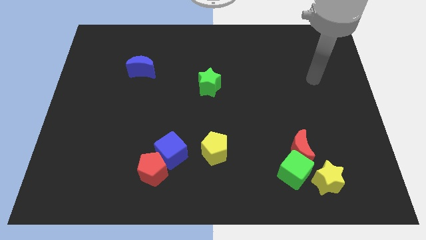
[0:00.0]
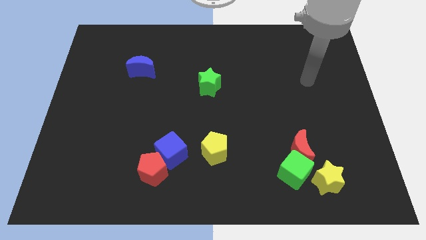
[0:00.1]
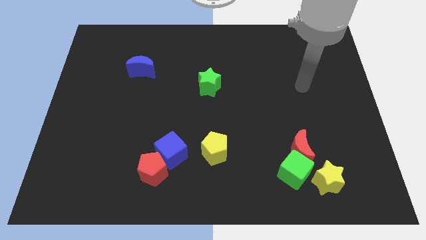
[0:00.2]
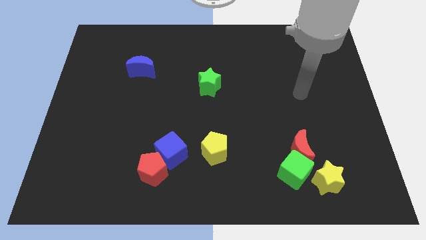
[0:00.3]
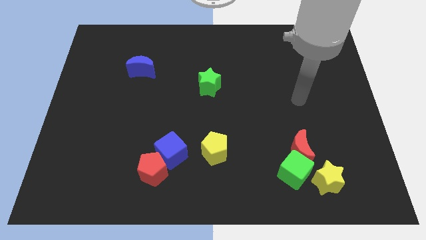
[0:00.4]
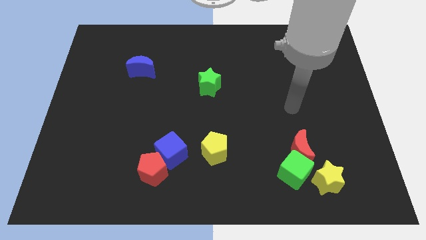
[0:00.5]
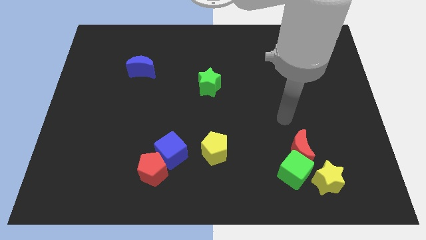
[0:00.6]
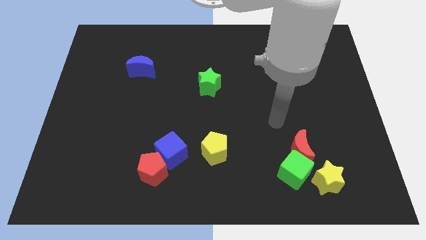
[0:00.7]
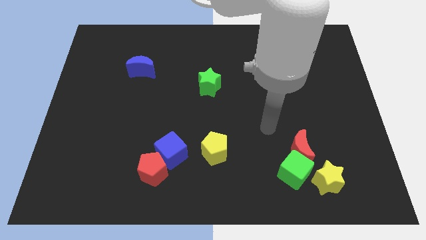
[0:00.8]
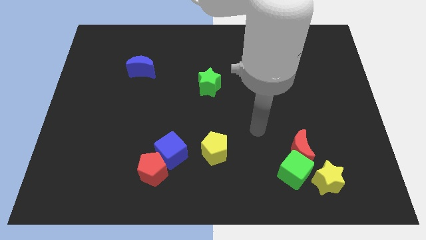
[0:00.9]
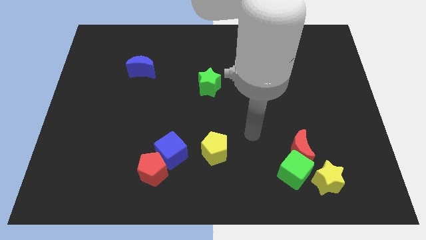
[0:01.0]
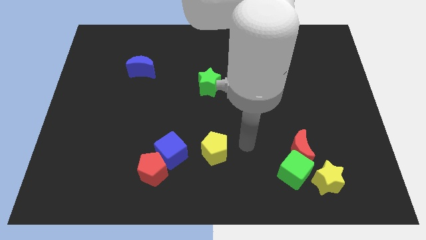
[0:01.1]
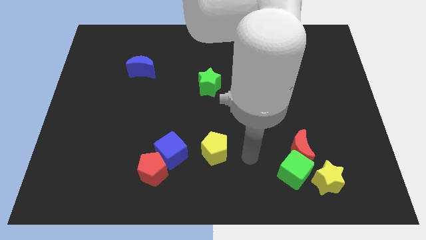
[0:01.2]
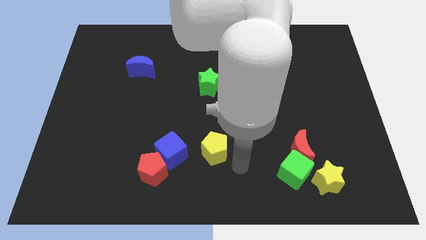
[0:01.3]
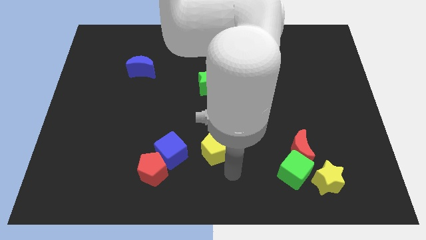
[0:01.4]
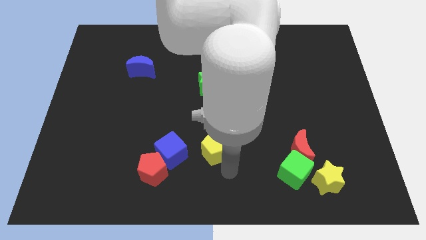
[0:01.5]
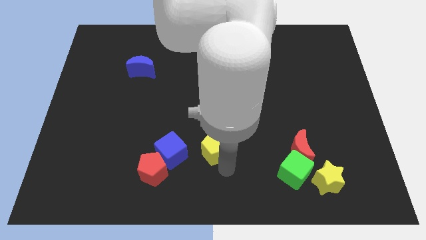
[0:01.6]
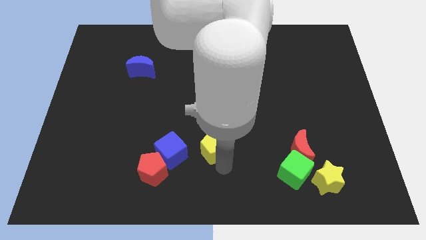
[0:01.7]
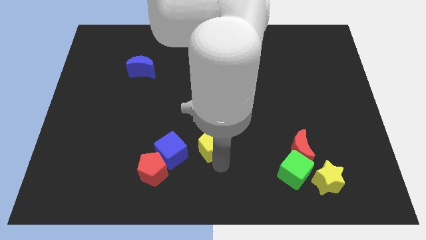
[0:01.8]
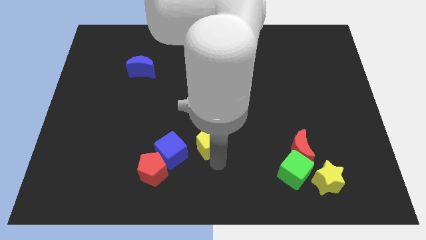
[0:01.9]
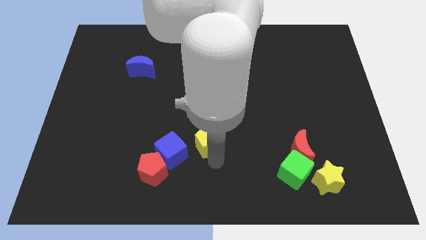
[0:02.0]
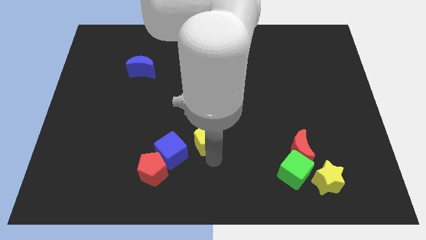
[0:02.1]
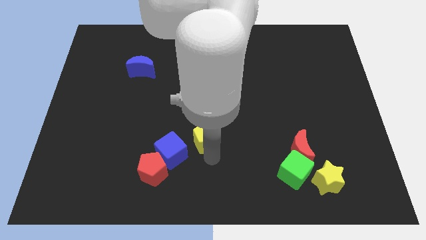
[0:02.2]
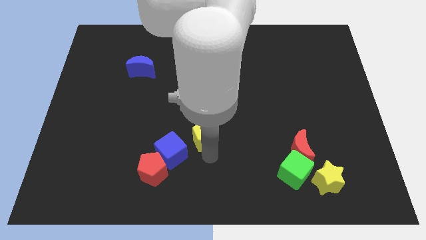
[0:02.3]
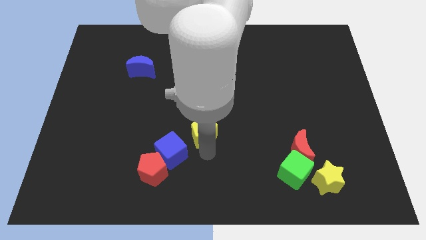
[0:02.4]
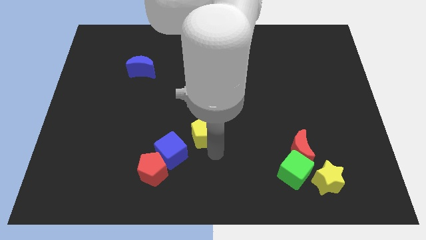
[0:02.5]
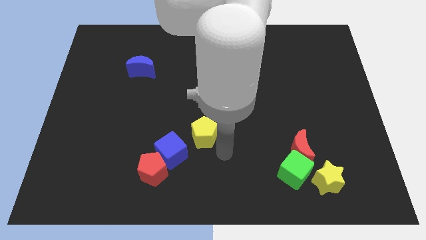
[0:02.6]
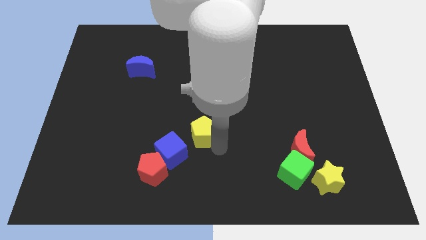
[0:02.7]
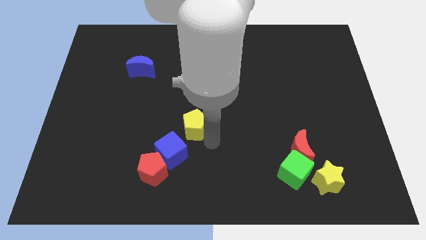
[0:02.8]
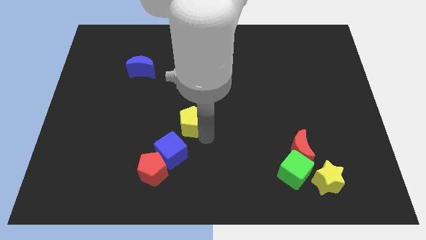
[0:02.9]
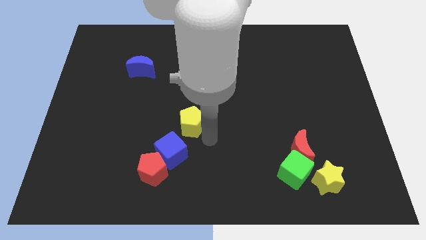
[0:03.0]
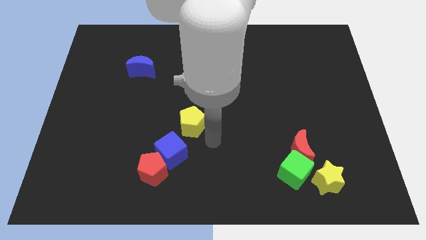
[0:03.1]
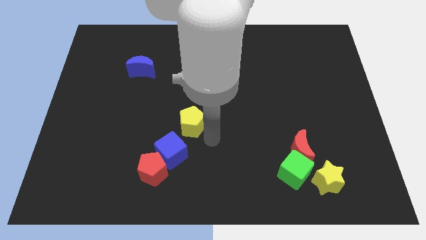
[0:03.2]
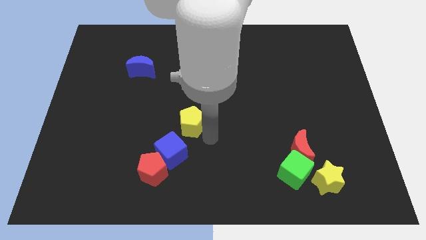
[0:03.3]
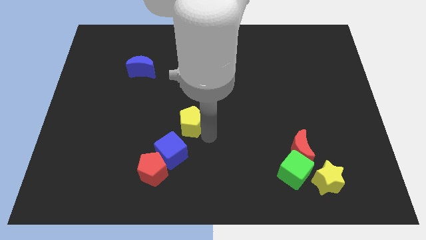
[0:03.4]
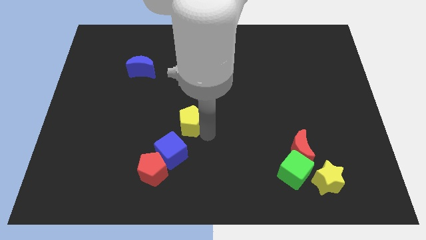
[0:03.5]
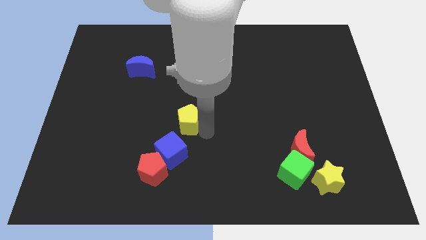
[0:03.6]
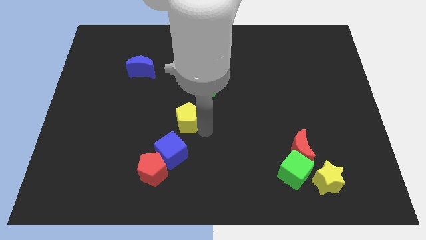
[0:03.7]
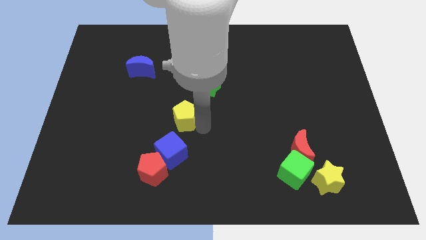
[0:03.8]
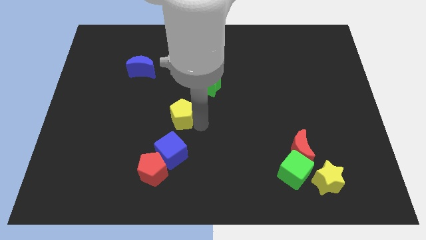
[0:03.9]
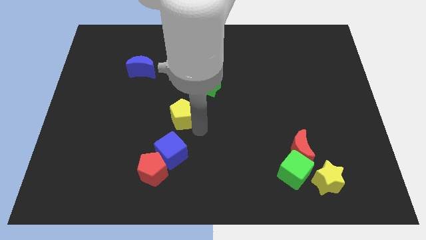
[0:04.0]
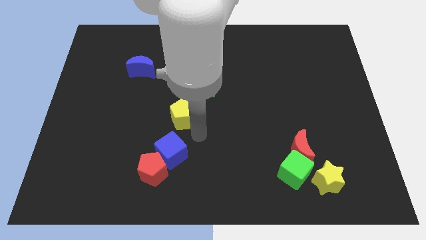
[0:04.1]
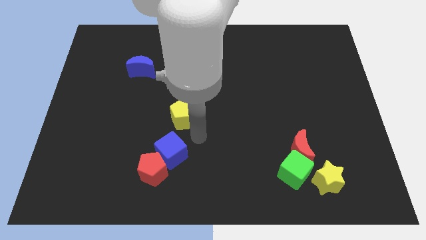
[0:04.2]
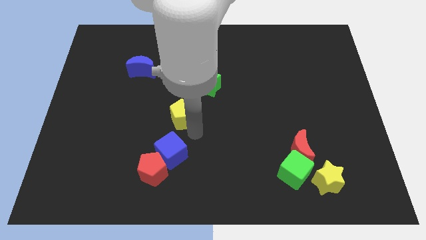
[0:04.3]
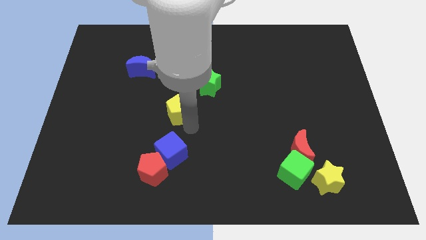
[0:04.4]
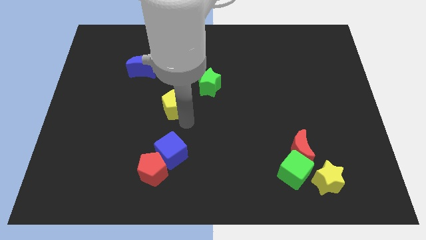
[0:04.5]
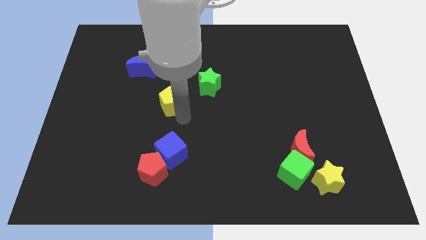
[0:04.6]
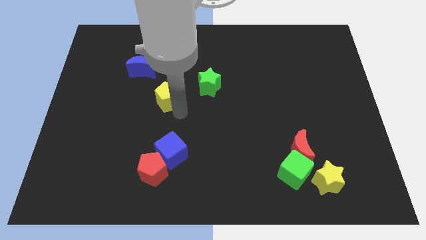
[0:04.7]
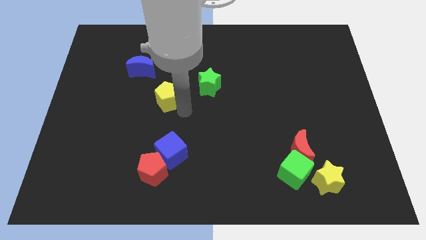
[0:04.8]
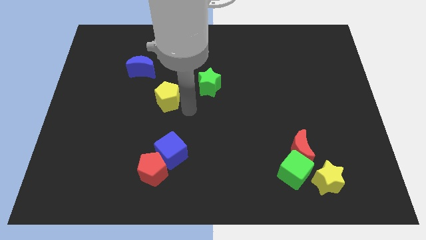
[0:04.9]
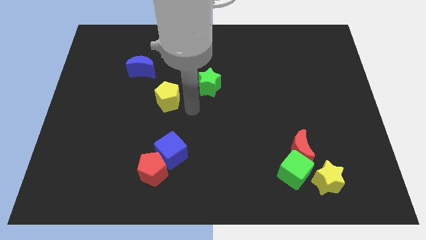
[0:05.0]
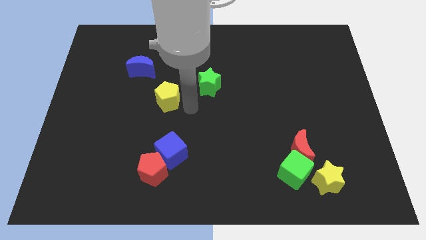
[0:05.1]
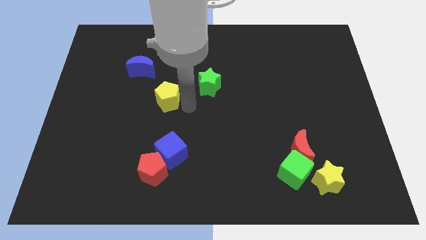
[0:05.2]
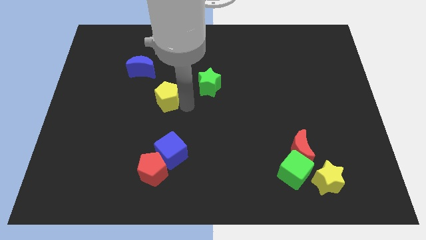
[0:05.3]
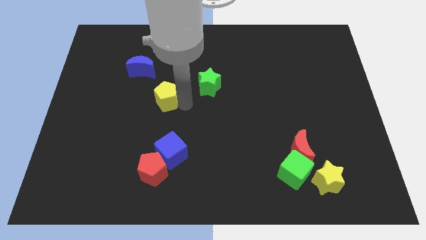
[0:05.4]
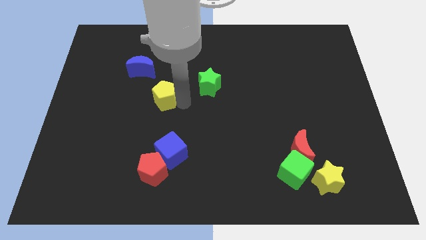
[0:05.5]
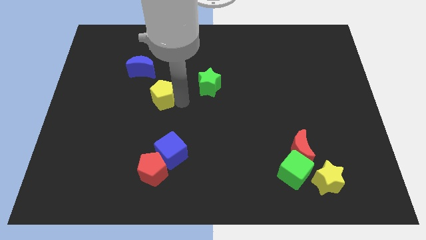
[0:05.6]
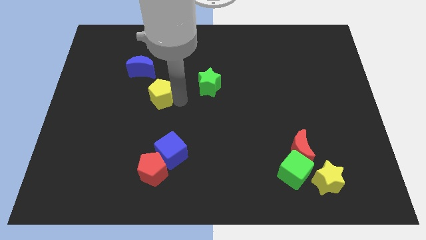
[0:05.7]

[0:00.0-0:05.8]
push the yellow pentagon upwards and left diagonally

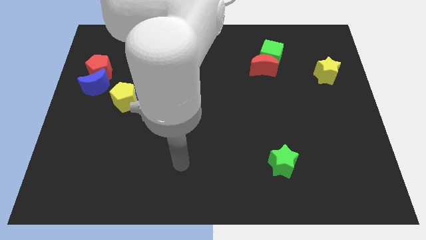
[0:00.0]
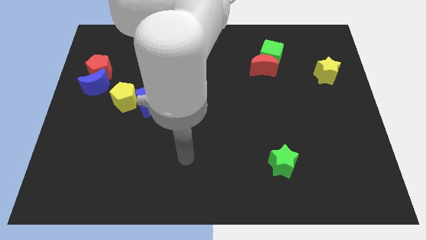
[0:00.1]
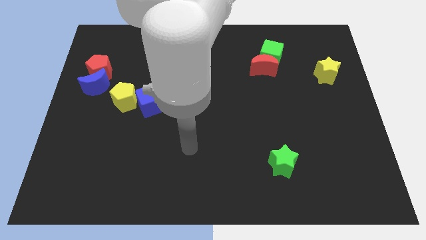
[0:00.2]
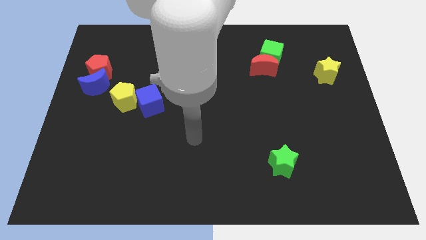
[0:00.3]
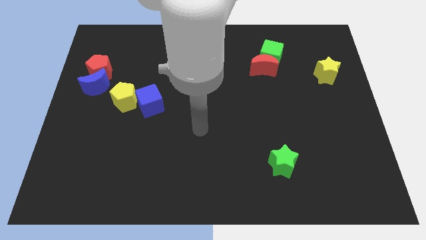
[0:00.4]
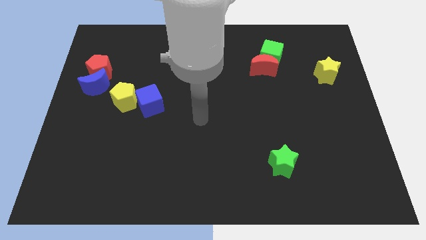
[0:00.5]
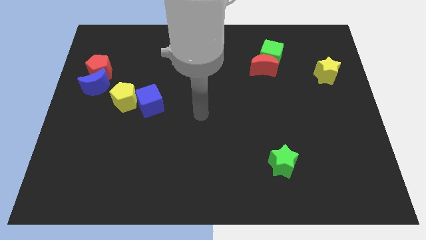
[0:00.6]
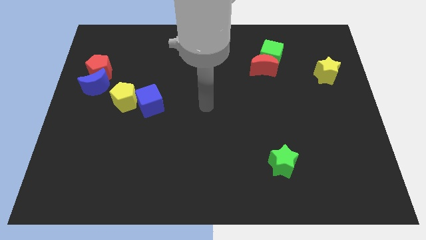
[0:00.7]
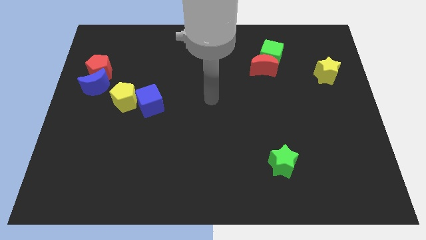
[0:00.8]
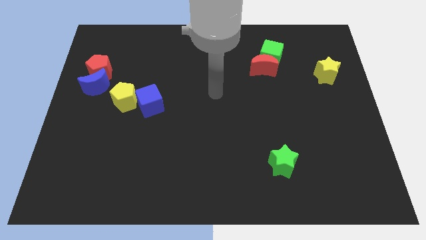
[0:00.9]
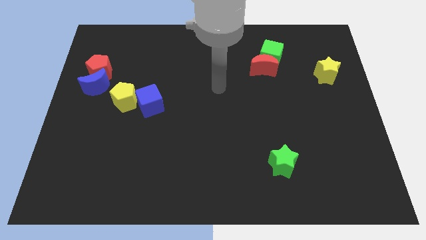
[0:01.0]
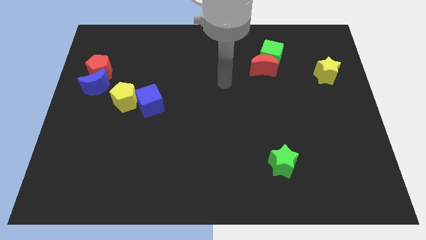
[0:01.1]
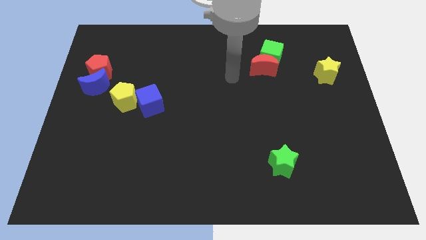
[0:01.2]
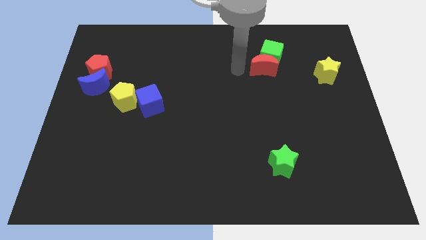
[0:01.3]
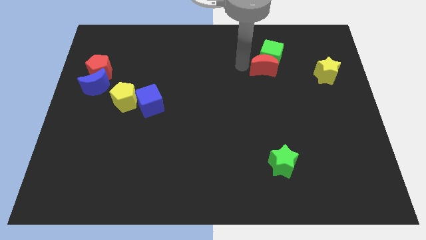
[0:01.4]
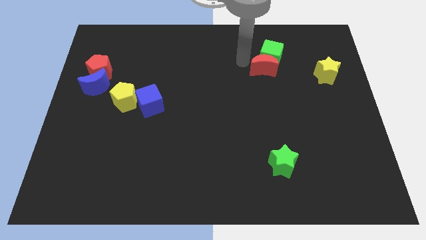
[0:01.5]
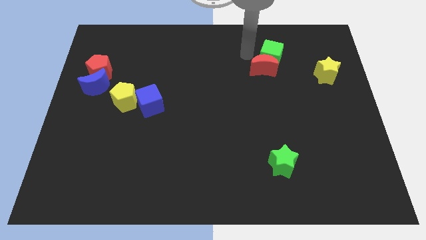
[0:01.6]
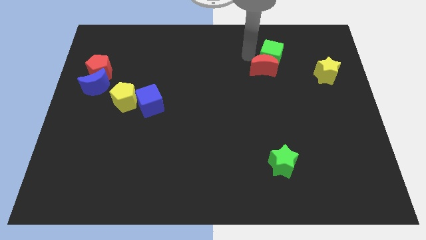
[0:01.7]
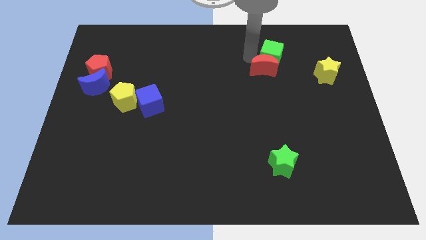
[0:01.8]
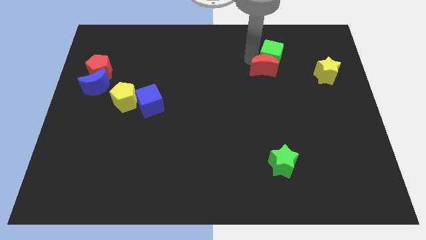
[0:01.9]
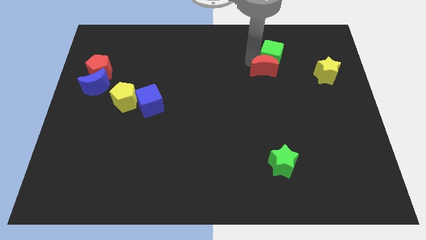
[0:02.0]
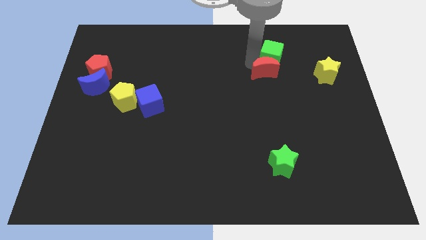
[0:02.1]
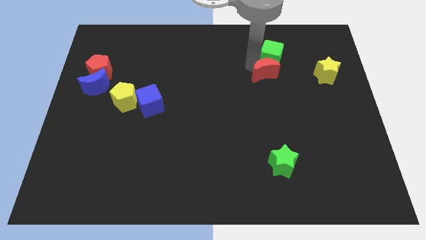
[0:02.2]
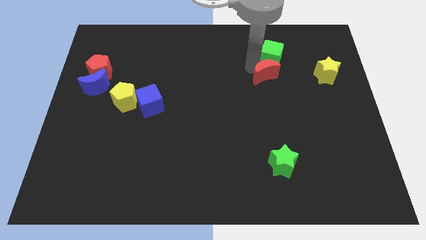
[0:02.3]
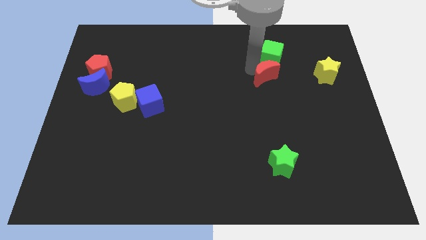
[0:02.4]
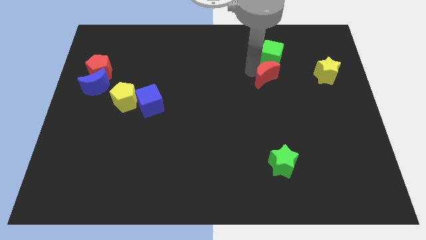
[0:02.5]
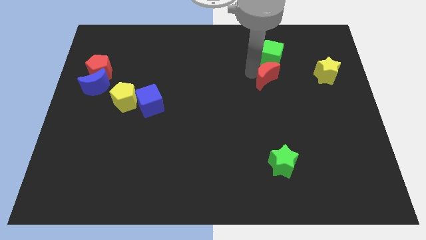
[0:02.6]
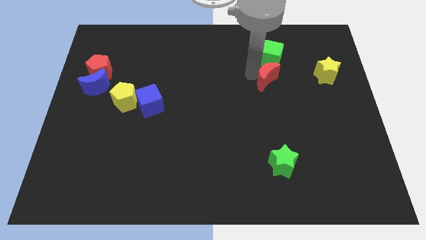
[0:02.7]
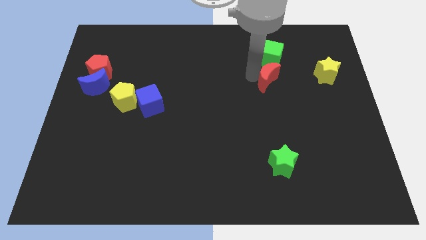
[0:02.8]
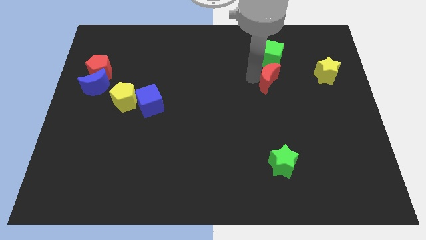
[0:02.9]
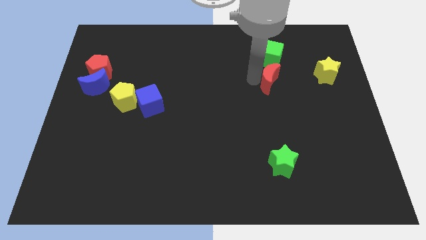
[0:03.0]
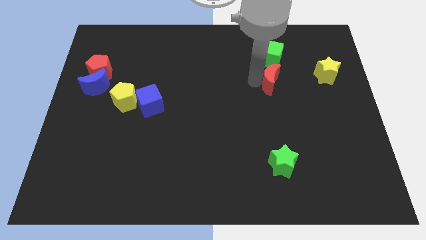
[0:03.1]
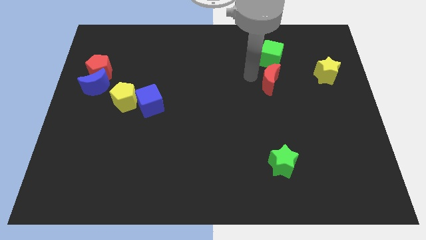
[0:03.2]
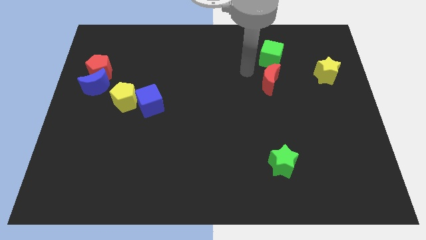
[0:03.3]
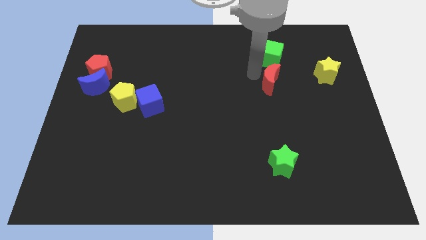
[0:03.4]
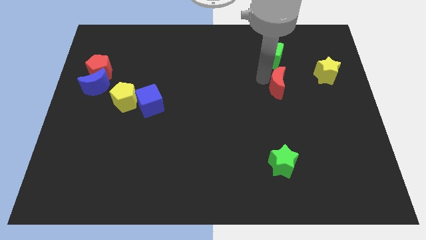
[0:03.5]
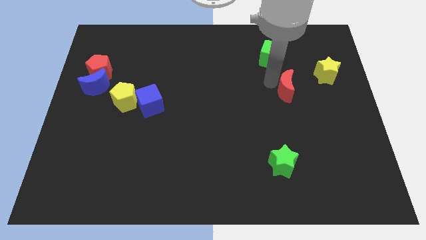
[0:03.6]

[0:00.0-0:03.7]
push the red moon a little downwards and to the right
